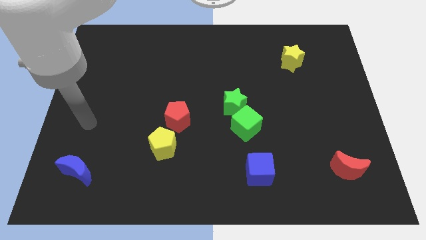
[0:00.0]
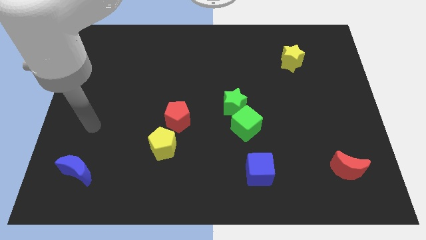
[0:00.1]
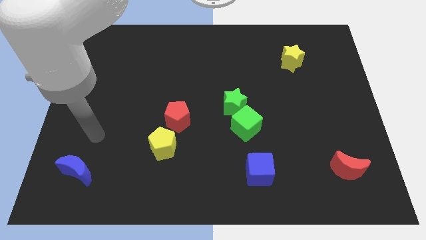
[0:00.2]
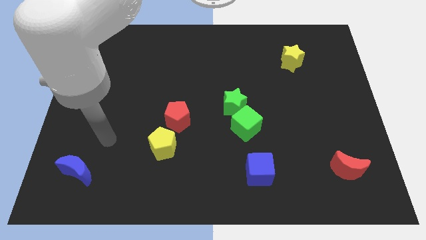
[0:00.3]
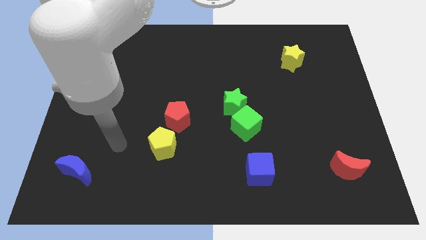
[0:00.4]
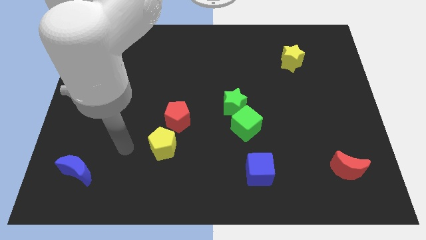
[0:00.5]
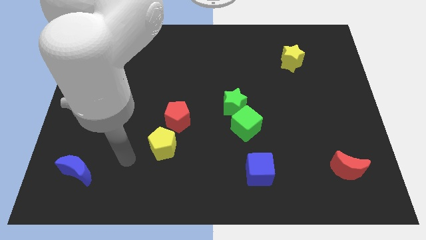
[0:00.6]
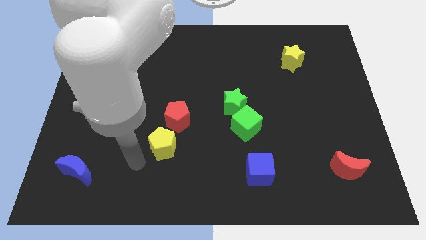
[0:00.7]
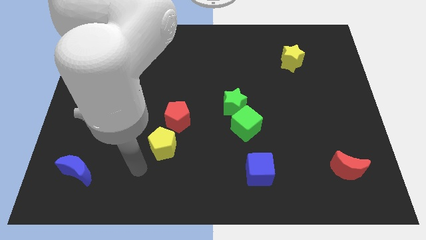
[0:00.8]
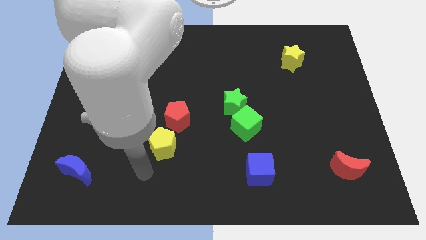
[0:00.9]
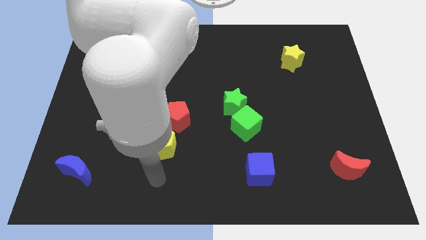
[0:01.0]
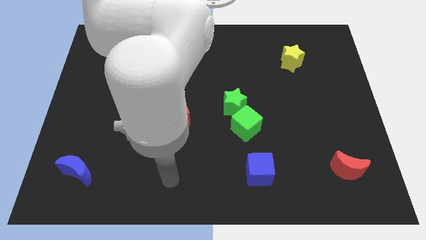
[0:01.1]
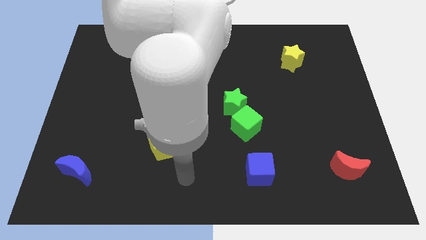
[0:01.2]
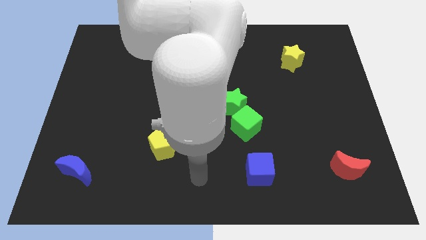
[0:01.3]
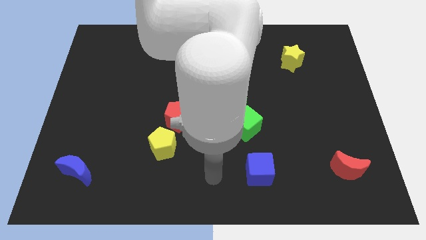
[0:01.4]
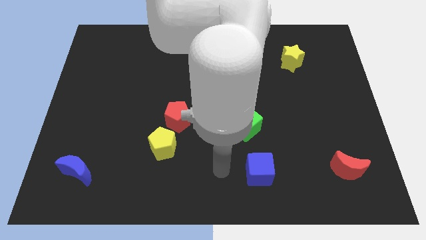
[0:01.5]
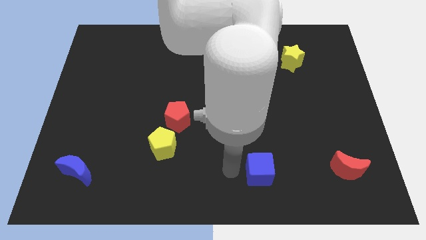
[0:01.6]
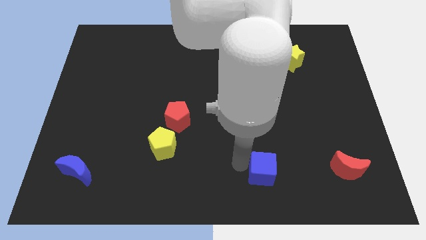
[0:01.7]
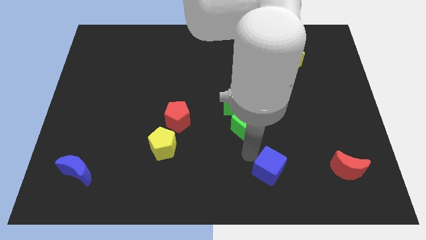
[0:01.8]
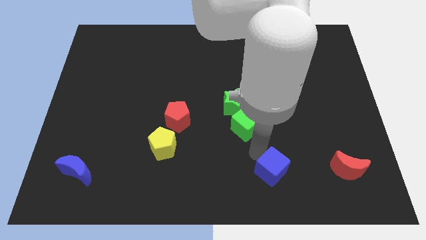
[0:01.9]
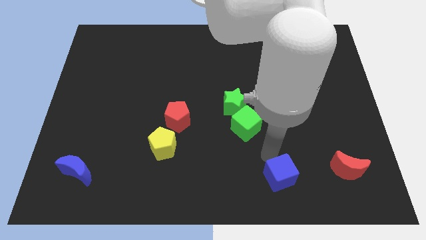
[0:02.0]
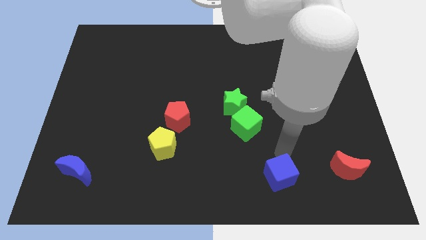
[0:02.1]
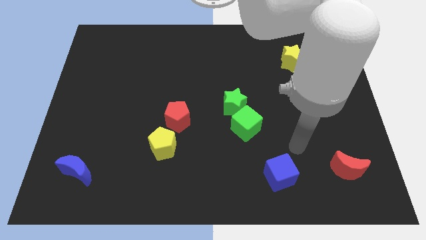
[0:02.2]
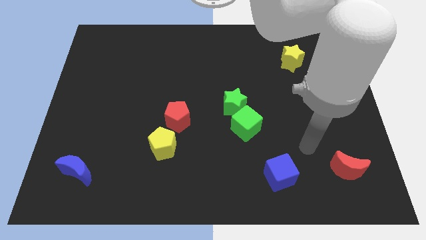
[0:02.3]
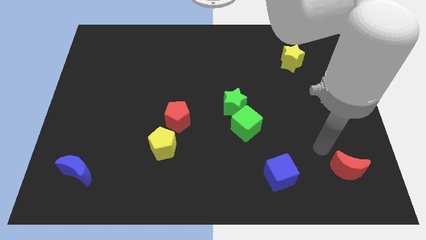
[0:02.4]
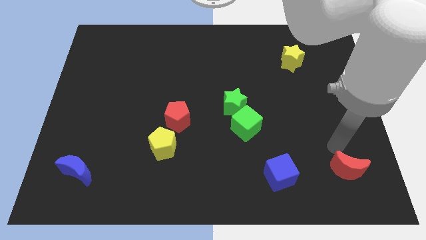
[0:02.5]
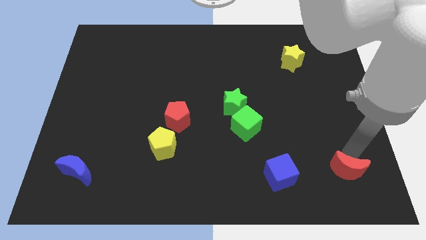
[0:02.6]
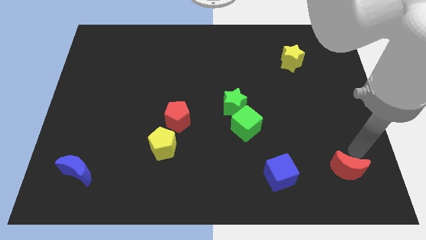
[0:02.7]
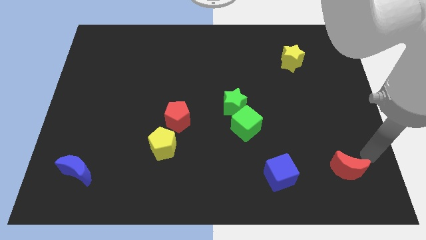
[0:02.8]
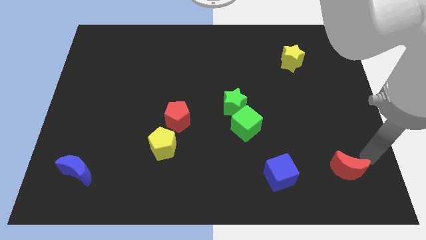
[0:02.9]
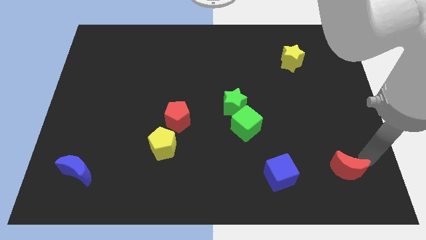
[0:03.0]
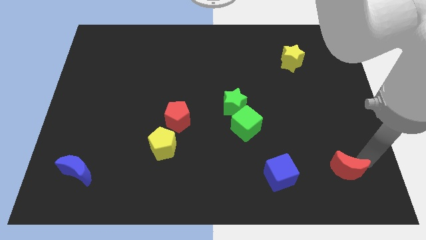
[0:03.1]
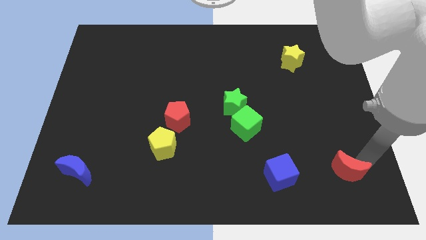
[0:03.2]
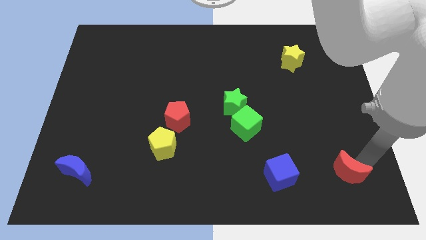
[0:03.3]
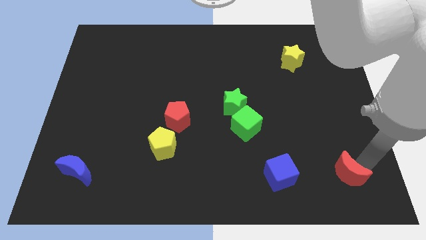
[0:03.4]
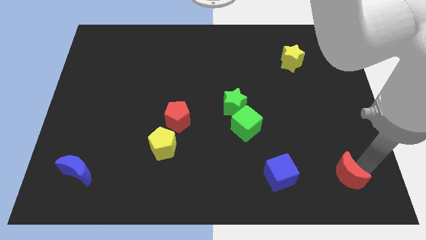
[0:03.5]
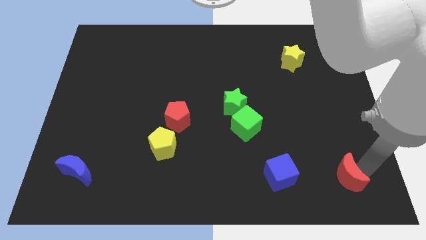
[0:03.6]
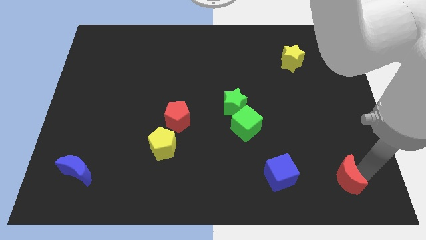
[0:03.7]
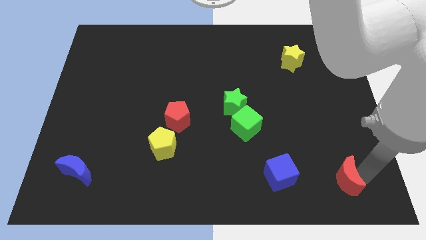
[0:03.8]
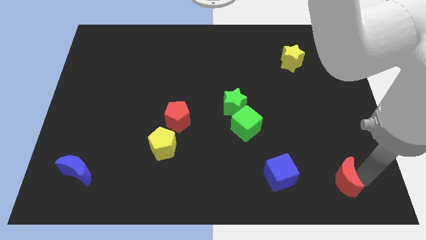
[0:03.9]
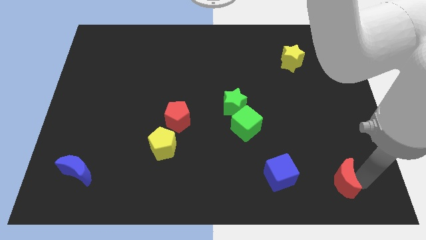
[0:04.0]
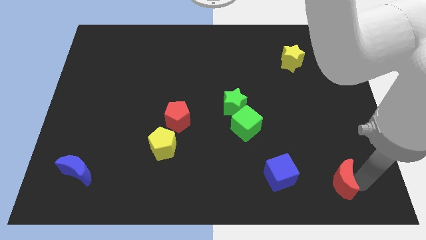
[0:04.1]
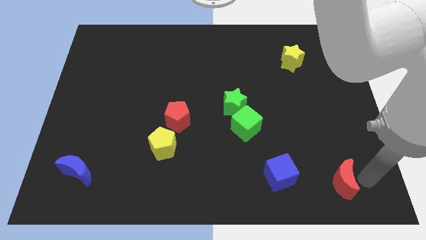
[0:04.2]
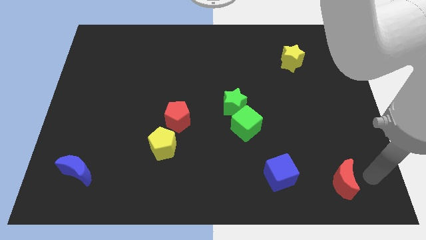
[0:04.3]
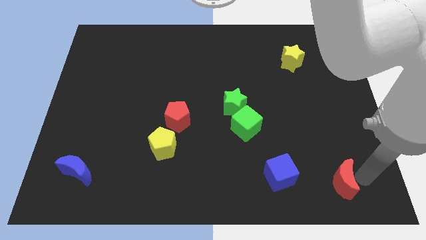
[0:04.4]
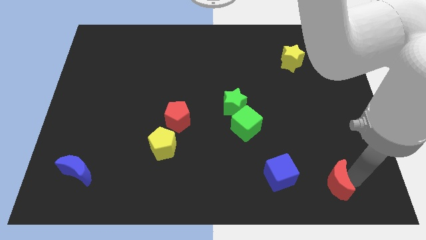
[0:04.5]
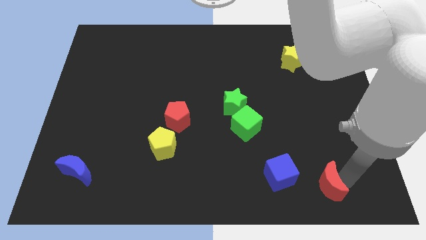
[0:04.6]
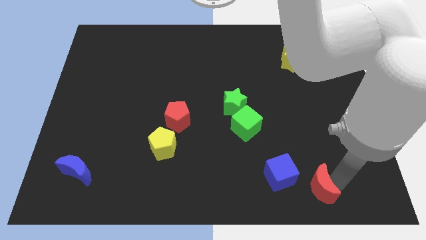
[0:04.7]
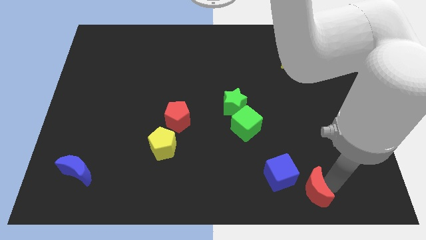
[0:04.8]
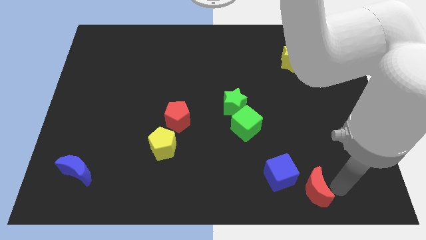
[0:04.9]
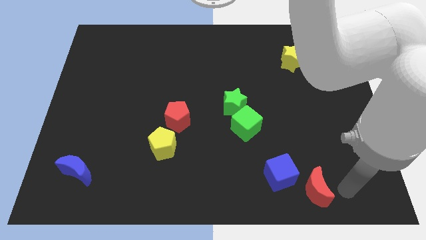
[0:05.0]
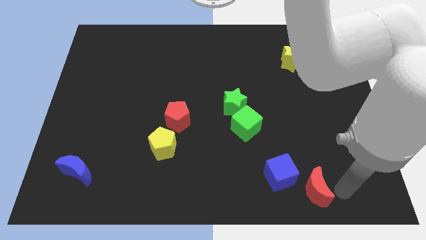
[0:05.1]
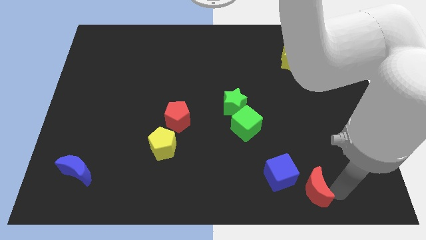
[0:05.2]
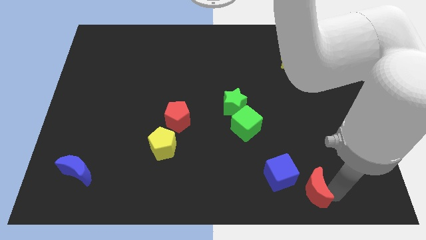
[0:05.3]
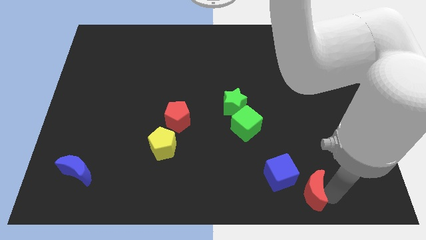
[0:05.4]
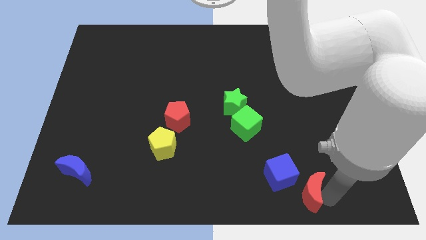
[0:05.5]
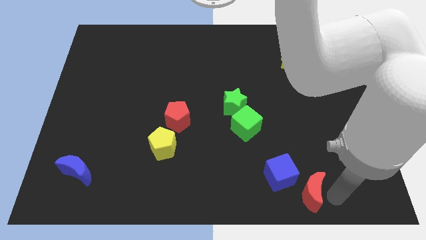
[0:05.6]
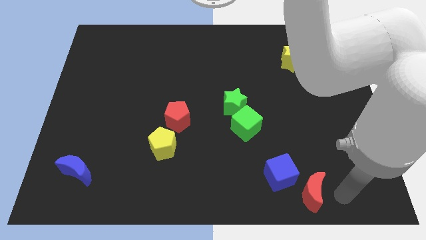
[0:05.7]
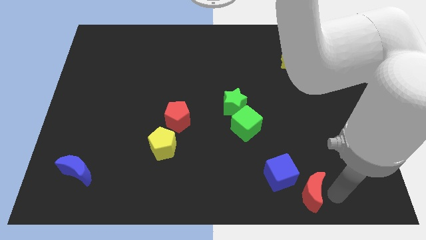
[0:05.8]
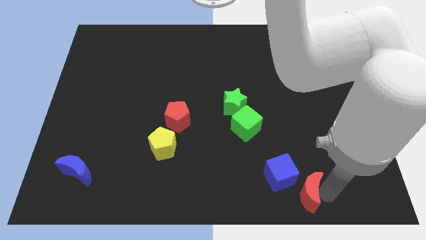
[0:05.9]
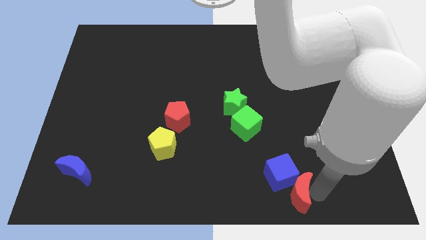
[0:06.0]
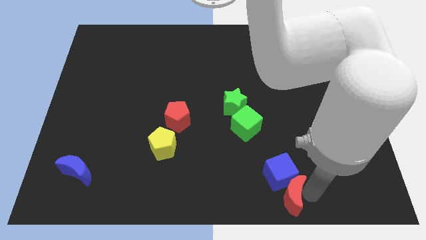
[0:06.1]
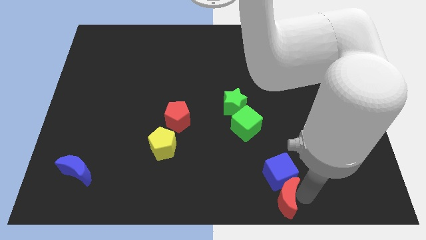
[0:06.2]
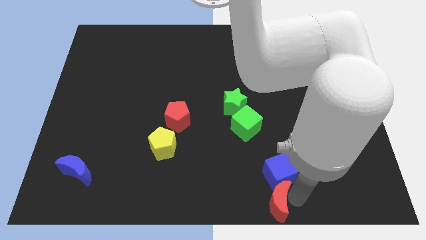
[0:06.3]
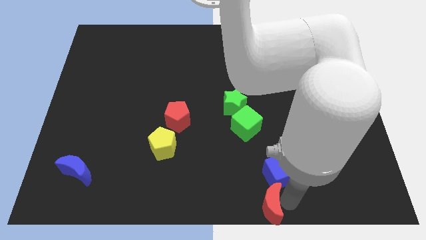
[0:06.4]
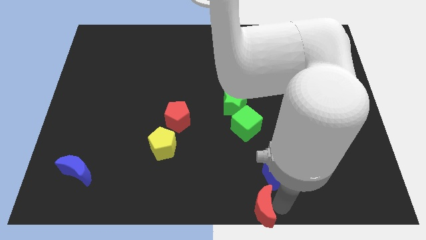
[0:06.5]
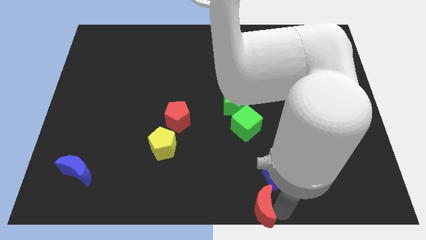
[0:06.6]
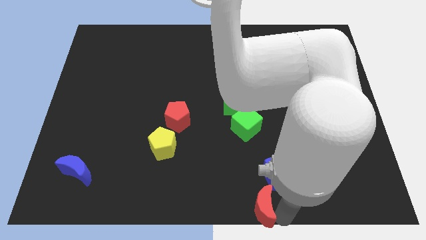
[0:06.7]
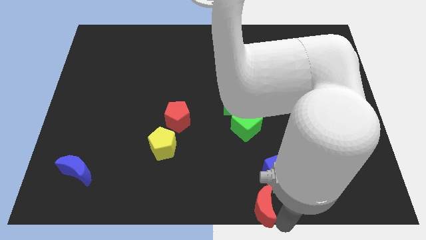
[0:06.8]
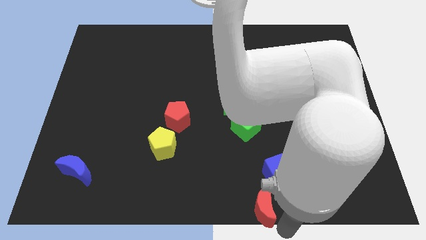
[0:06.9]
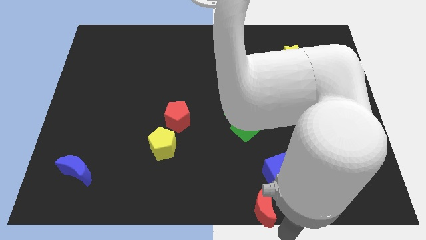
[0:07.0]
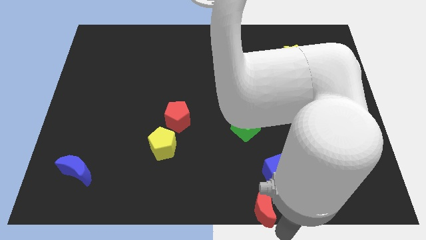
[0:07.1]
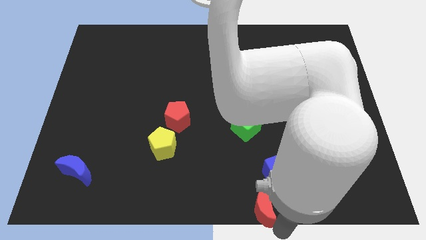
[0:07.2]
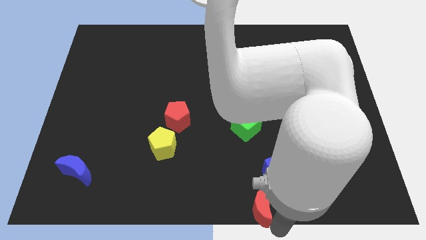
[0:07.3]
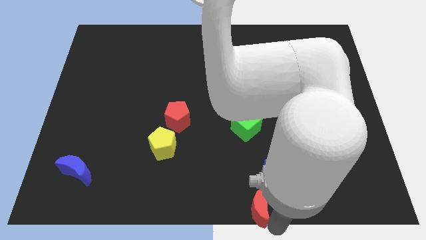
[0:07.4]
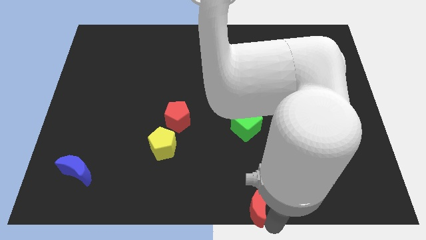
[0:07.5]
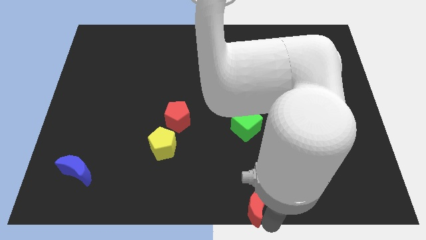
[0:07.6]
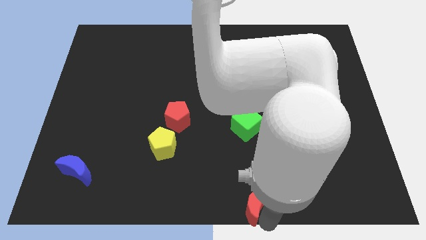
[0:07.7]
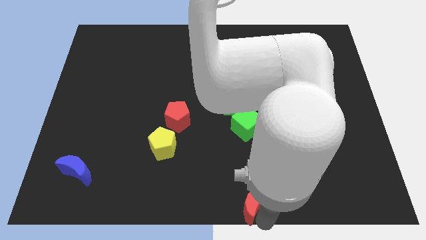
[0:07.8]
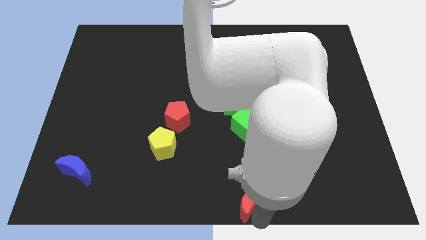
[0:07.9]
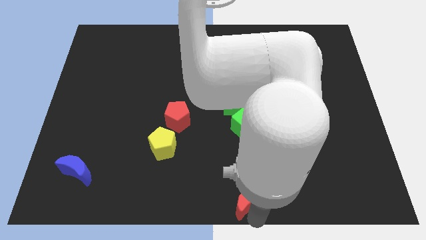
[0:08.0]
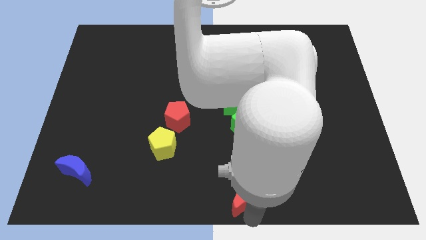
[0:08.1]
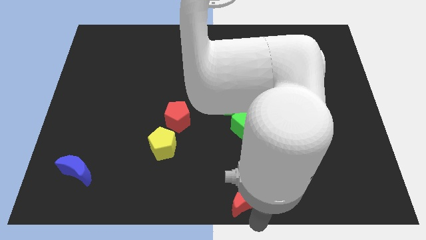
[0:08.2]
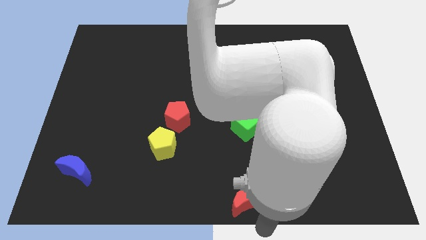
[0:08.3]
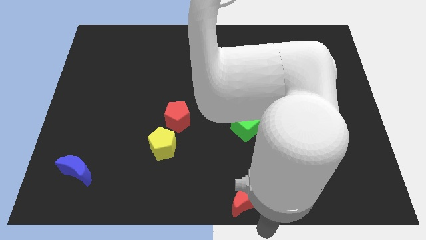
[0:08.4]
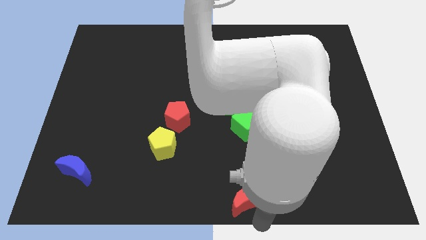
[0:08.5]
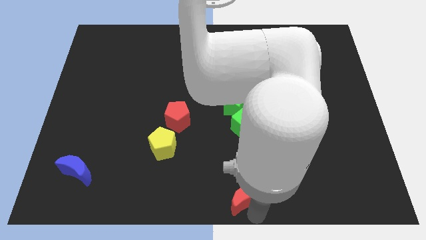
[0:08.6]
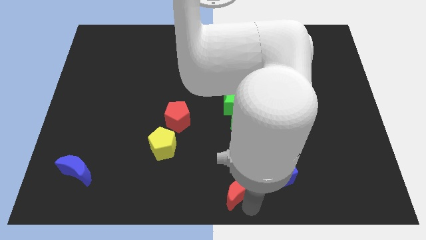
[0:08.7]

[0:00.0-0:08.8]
push the red moon left of the blue cube
